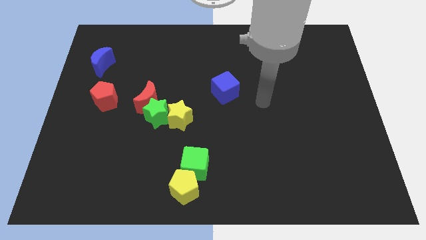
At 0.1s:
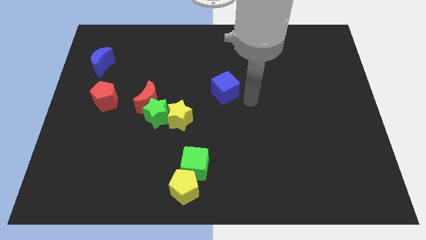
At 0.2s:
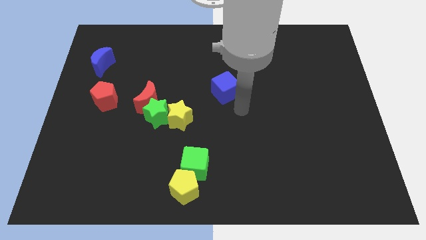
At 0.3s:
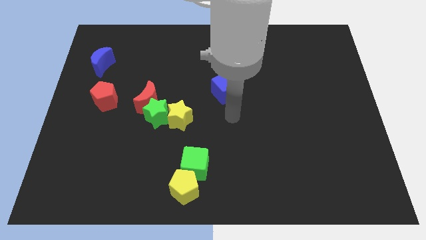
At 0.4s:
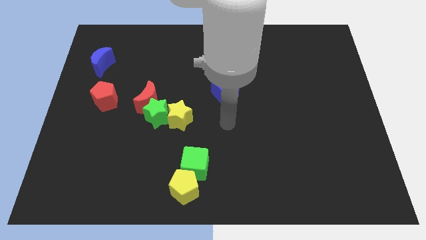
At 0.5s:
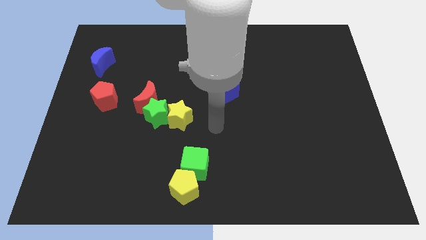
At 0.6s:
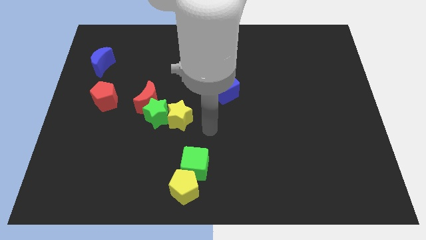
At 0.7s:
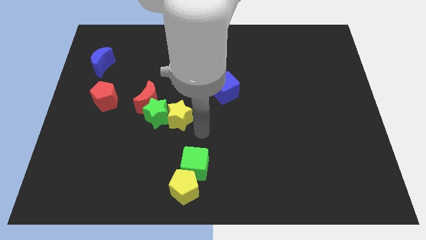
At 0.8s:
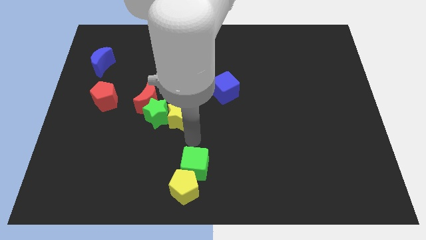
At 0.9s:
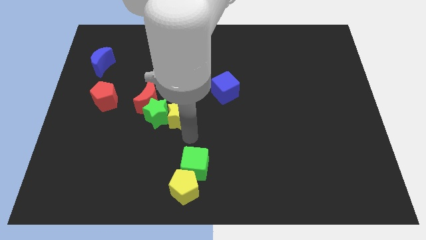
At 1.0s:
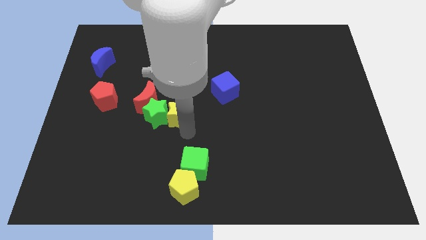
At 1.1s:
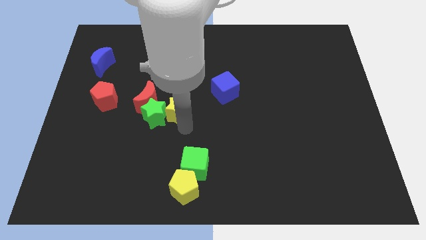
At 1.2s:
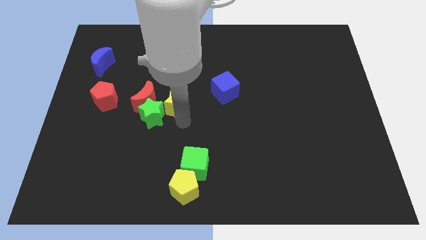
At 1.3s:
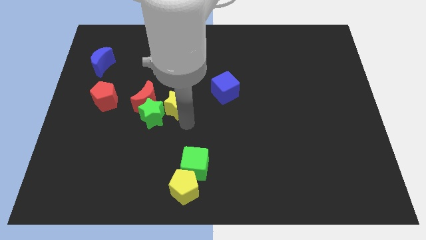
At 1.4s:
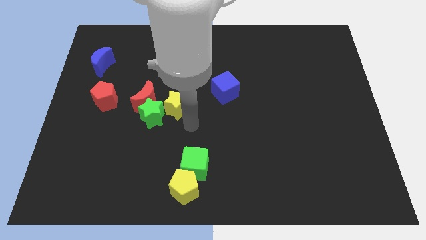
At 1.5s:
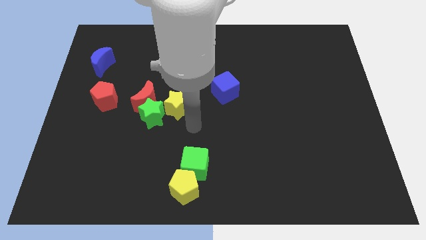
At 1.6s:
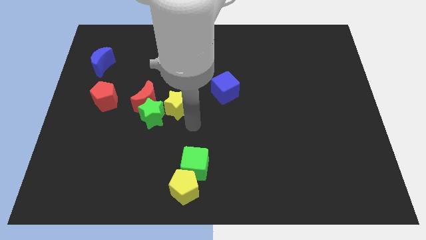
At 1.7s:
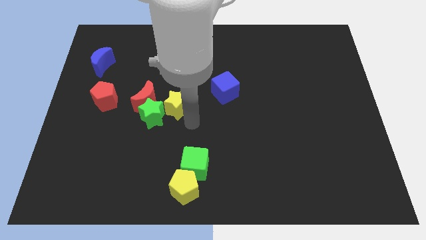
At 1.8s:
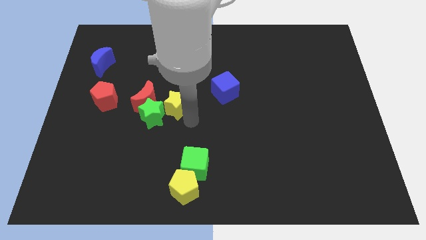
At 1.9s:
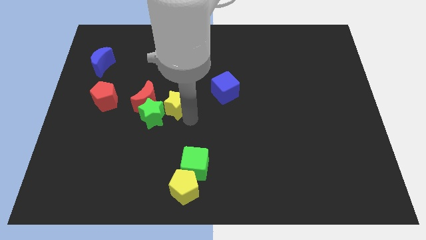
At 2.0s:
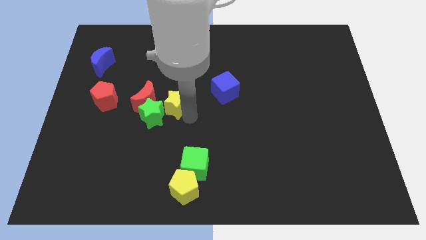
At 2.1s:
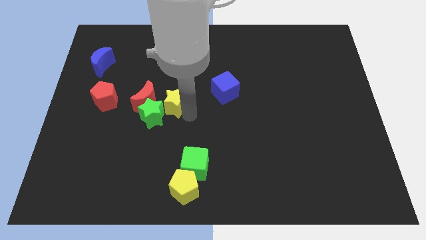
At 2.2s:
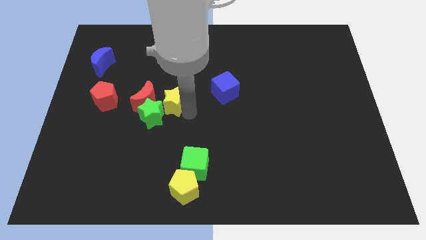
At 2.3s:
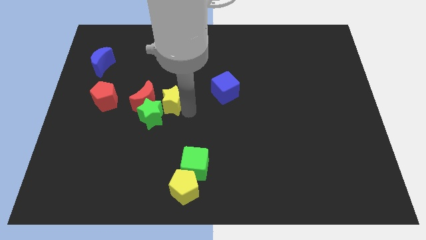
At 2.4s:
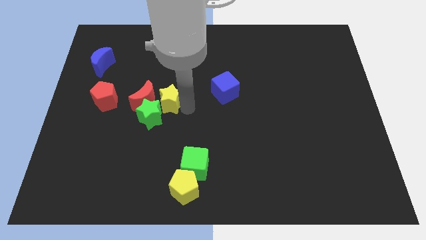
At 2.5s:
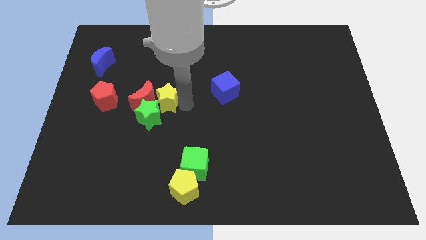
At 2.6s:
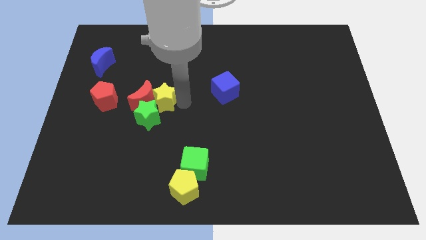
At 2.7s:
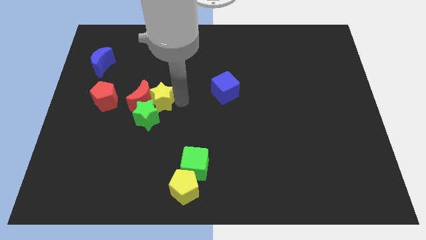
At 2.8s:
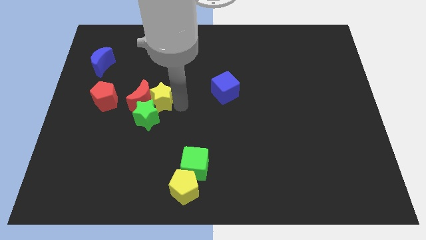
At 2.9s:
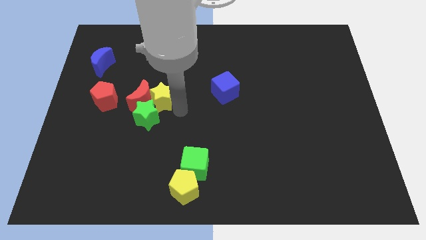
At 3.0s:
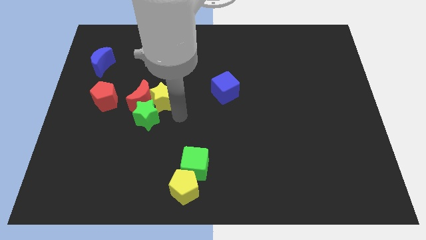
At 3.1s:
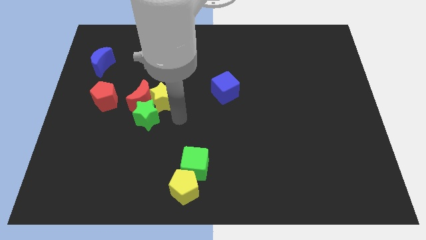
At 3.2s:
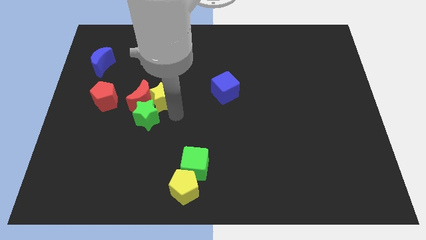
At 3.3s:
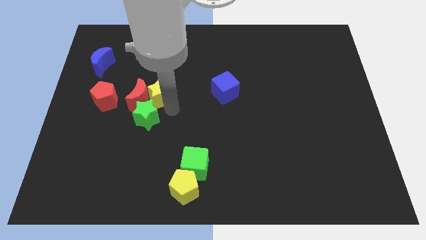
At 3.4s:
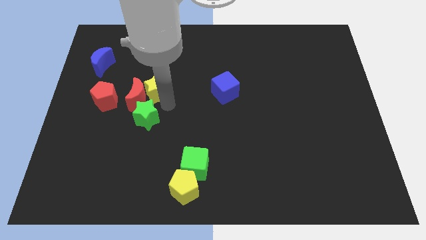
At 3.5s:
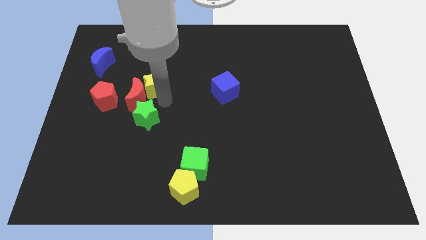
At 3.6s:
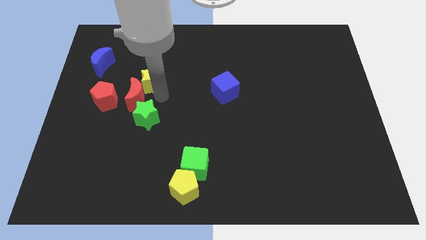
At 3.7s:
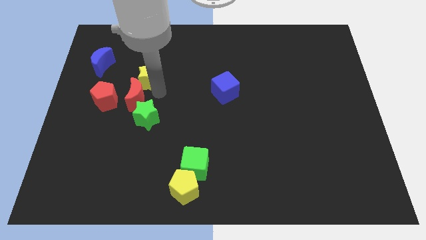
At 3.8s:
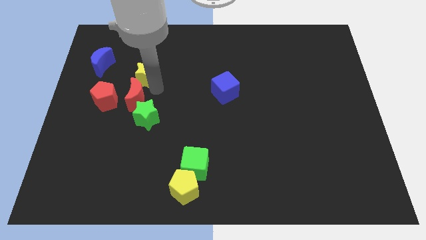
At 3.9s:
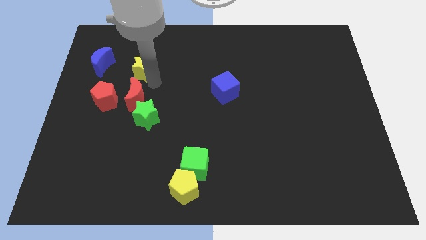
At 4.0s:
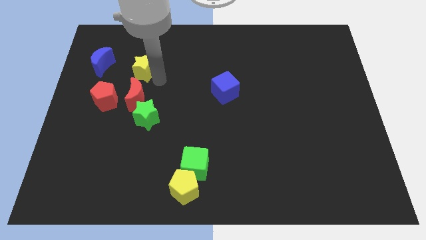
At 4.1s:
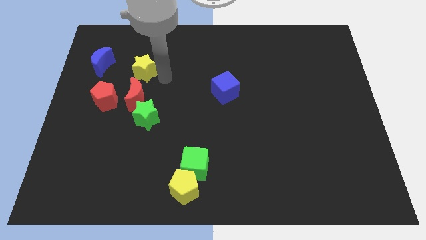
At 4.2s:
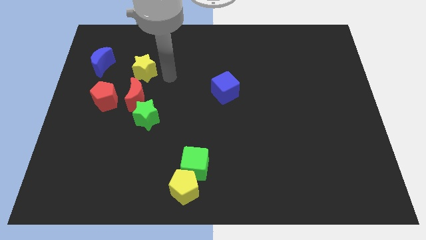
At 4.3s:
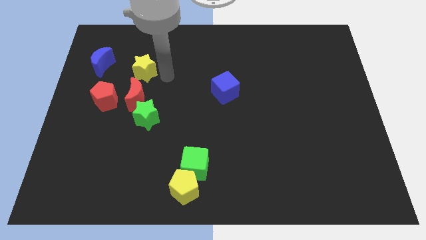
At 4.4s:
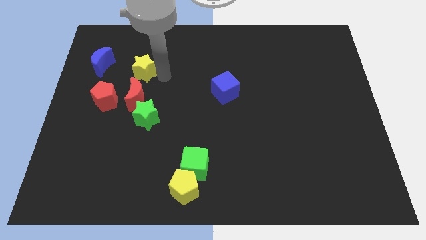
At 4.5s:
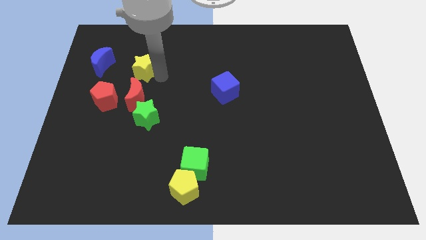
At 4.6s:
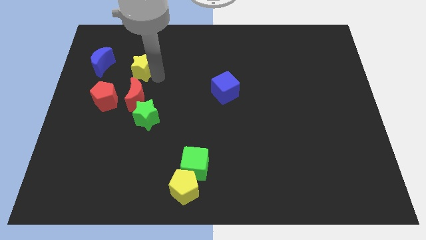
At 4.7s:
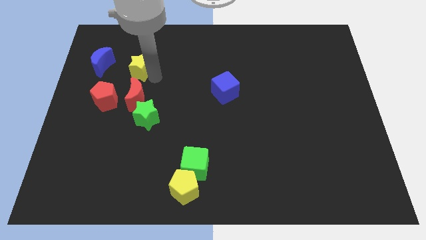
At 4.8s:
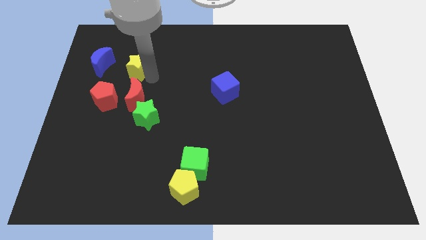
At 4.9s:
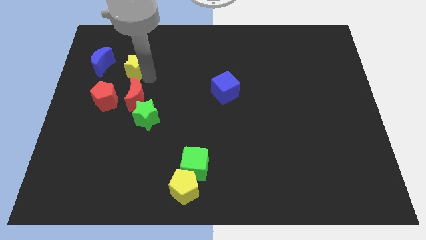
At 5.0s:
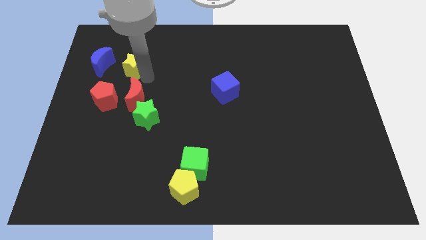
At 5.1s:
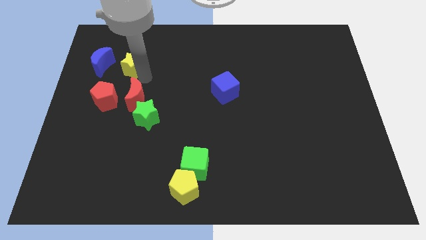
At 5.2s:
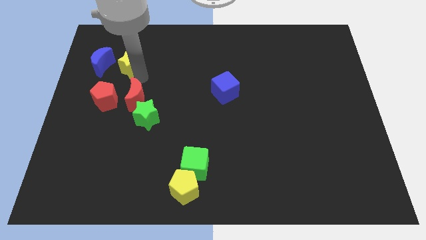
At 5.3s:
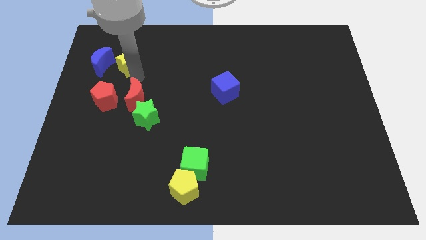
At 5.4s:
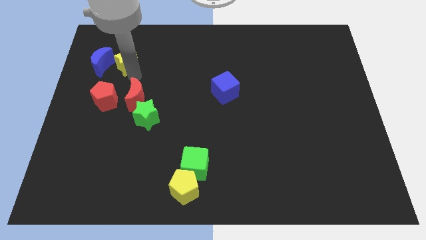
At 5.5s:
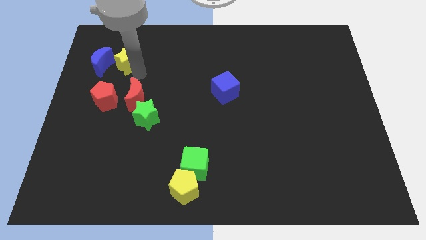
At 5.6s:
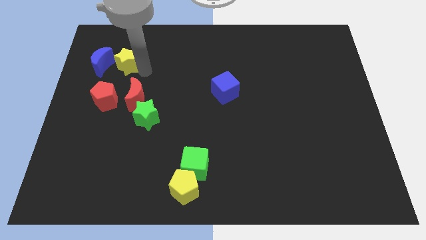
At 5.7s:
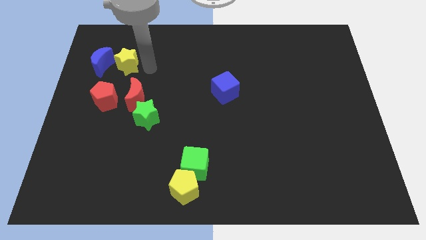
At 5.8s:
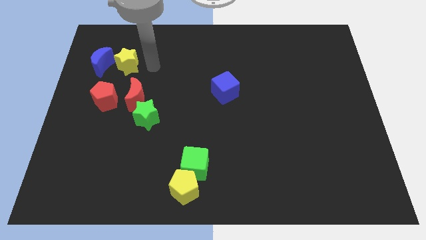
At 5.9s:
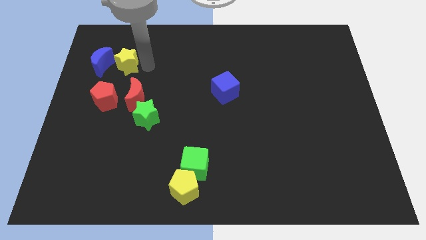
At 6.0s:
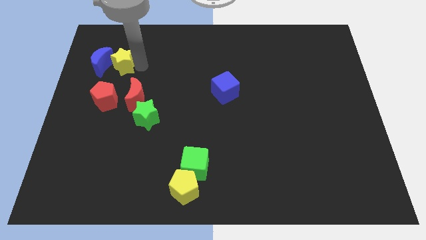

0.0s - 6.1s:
put the yellow star close to the blue moon

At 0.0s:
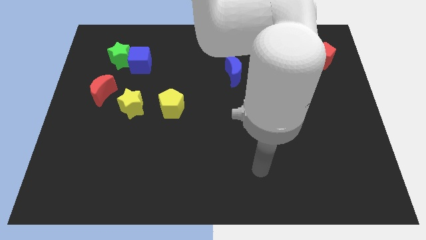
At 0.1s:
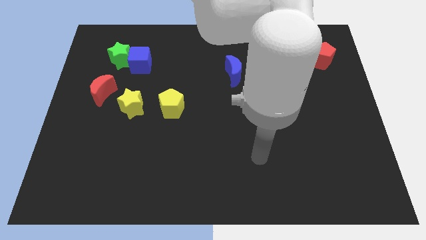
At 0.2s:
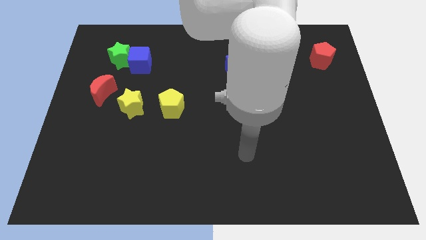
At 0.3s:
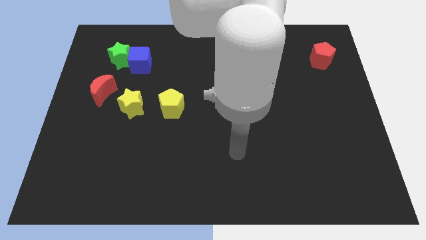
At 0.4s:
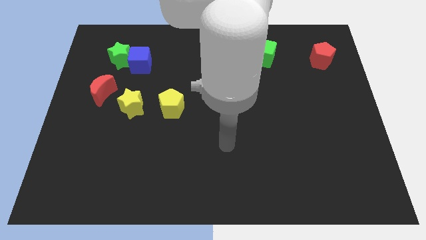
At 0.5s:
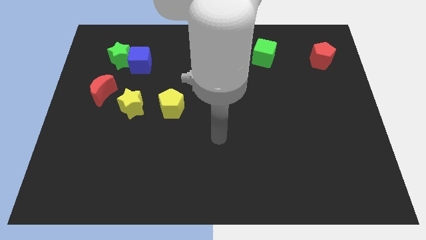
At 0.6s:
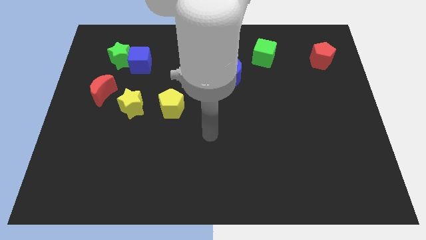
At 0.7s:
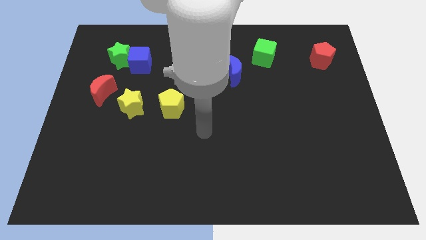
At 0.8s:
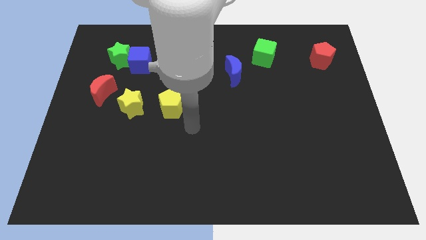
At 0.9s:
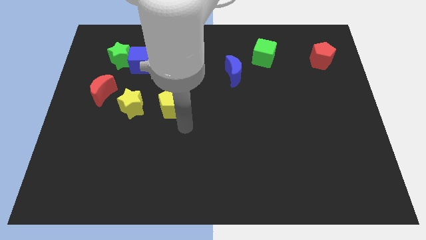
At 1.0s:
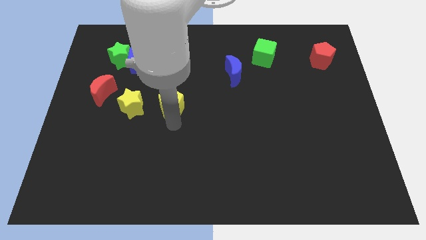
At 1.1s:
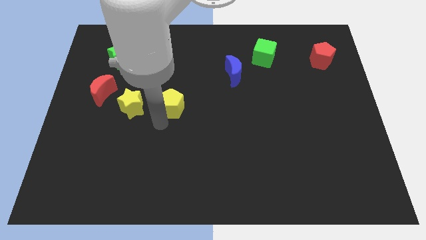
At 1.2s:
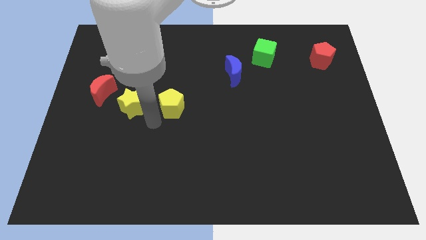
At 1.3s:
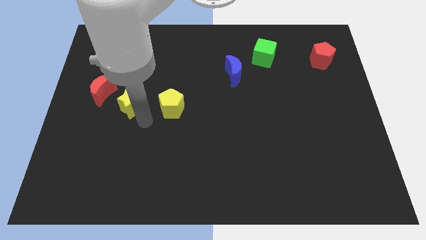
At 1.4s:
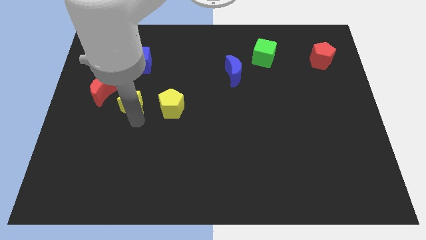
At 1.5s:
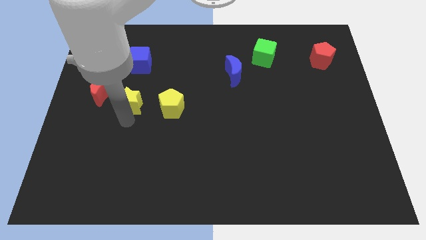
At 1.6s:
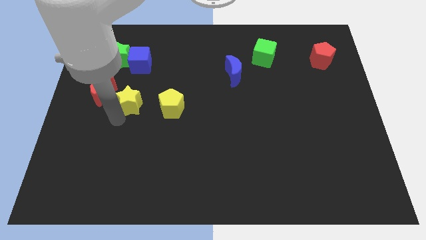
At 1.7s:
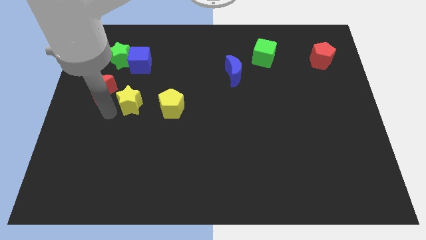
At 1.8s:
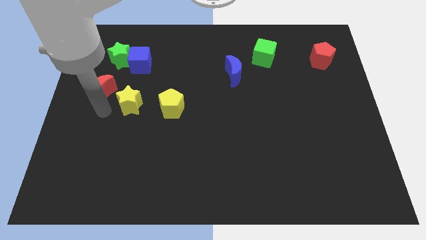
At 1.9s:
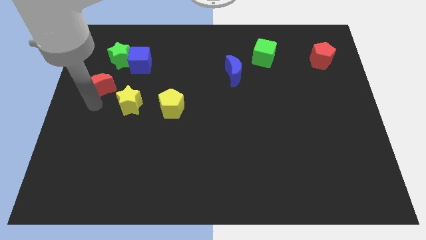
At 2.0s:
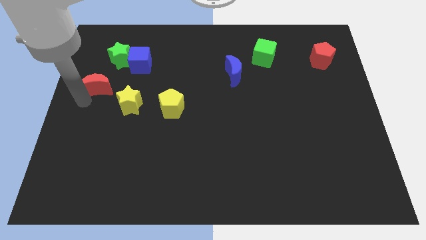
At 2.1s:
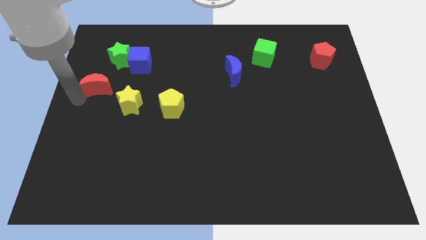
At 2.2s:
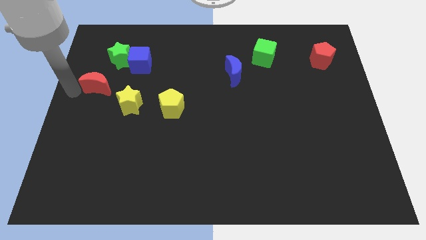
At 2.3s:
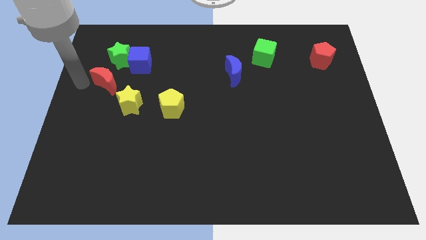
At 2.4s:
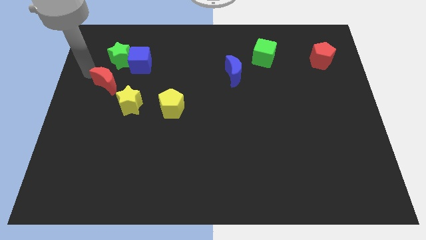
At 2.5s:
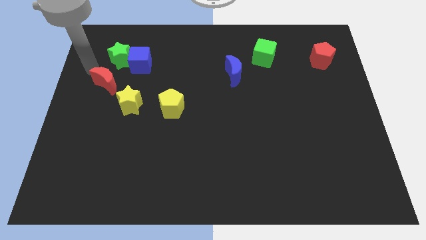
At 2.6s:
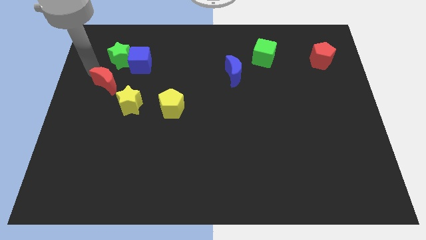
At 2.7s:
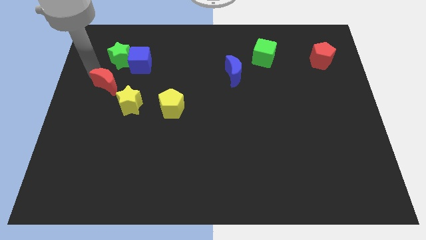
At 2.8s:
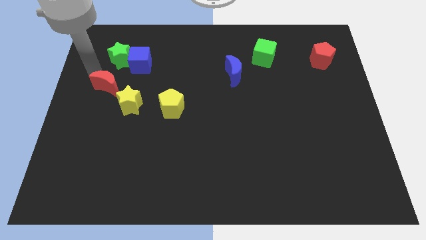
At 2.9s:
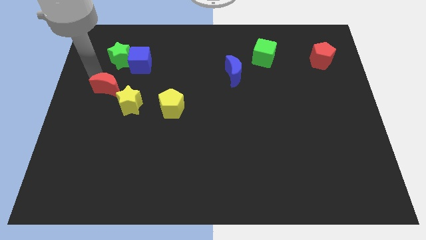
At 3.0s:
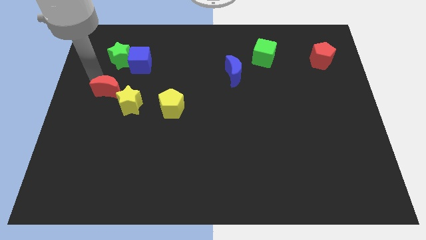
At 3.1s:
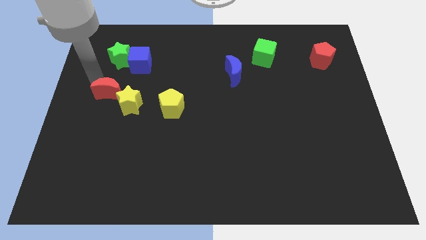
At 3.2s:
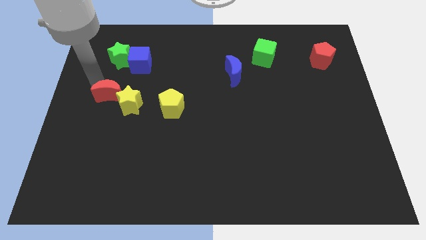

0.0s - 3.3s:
put the red moon towards the yellow star
